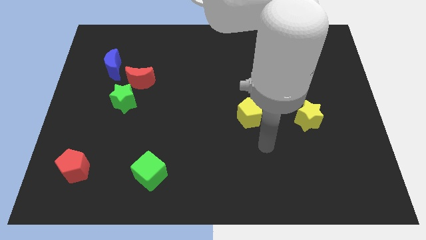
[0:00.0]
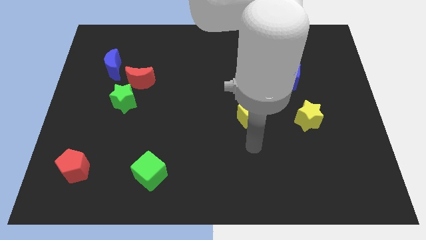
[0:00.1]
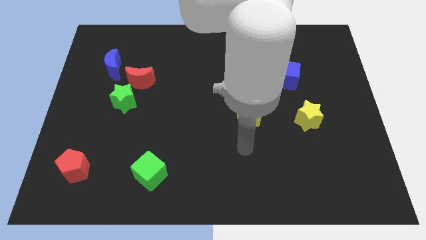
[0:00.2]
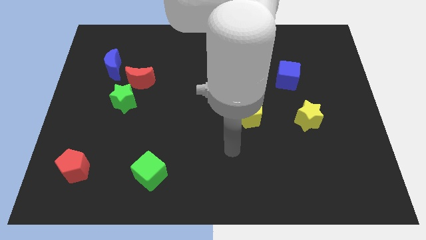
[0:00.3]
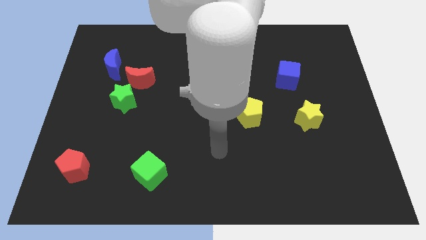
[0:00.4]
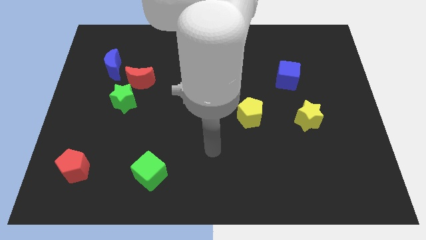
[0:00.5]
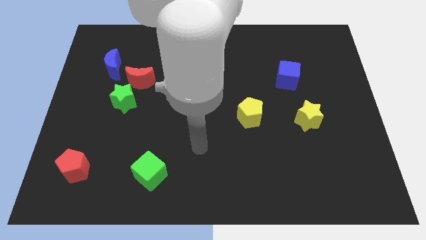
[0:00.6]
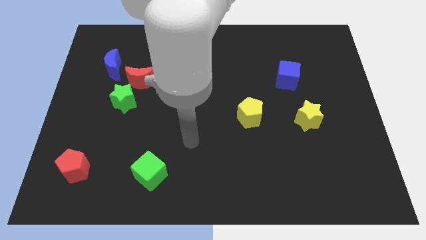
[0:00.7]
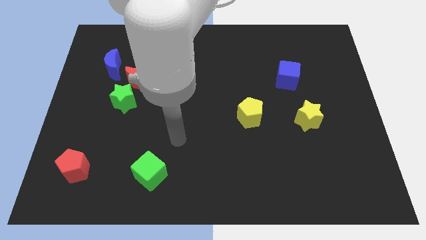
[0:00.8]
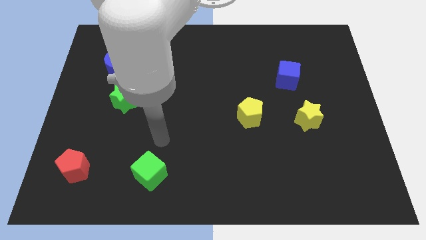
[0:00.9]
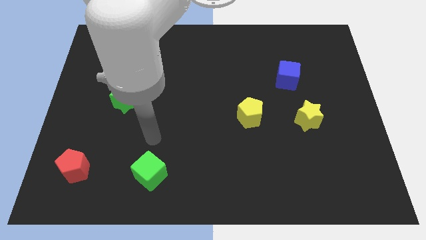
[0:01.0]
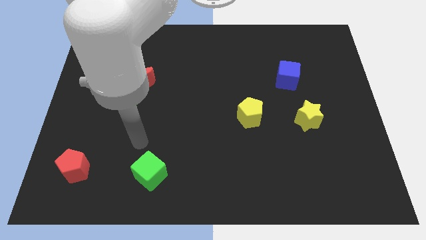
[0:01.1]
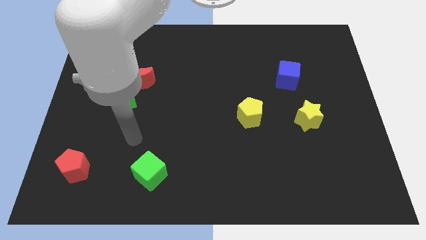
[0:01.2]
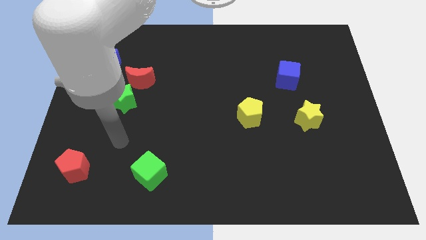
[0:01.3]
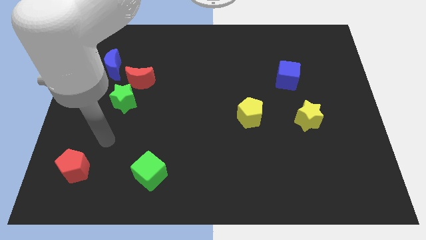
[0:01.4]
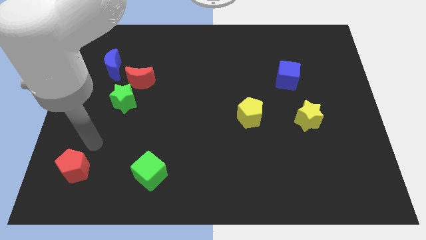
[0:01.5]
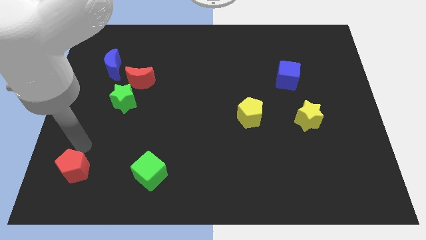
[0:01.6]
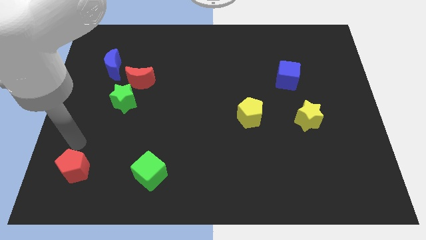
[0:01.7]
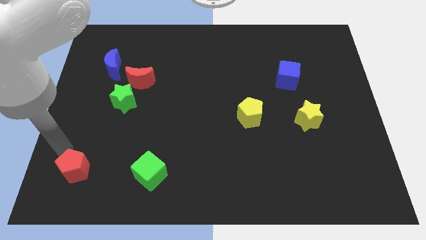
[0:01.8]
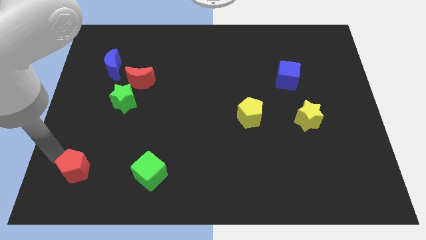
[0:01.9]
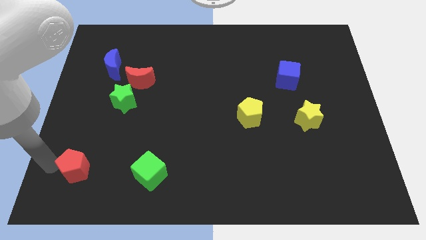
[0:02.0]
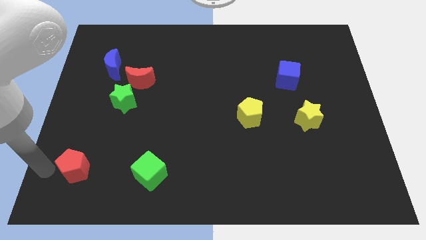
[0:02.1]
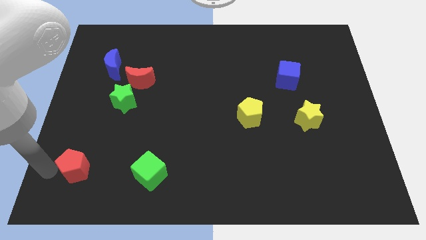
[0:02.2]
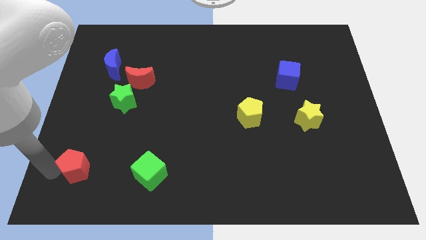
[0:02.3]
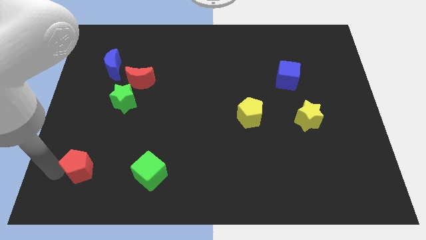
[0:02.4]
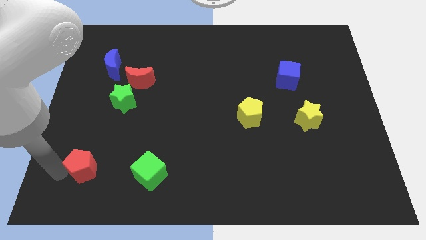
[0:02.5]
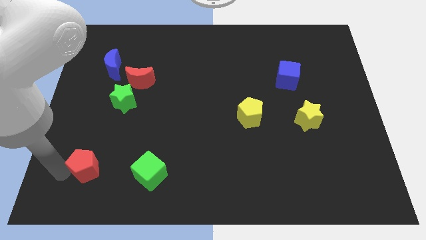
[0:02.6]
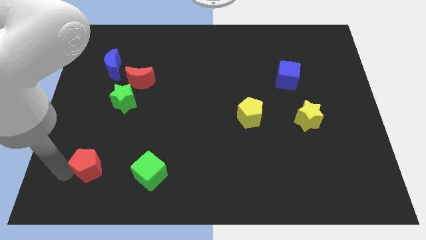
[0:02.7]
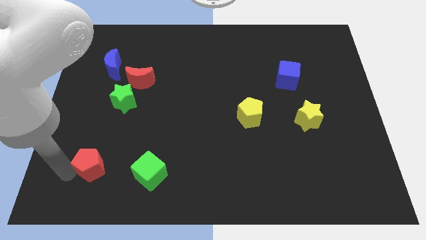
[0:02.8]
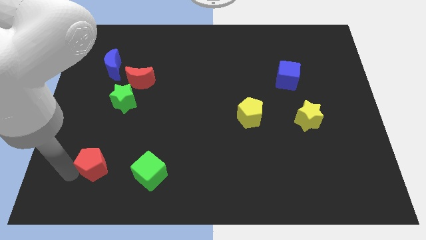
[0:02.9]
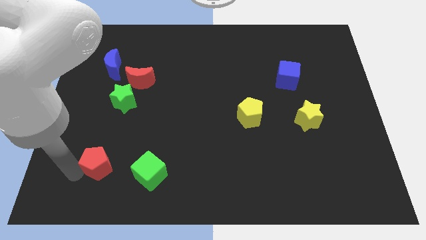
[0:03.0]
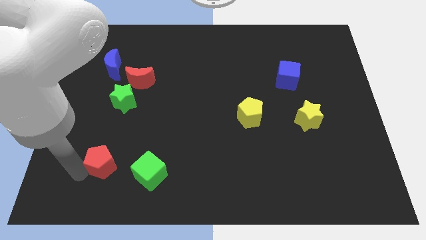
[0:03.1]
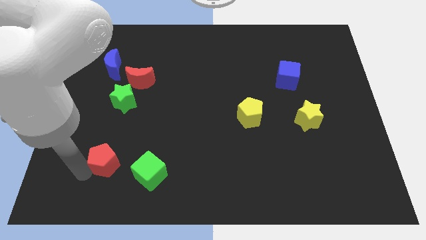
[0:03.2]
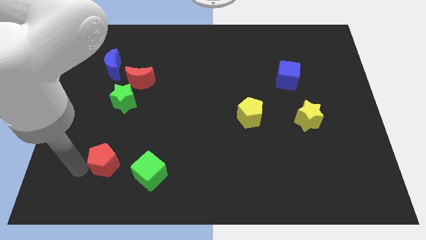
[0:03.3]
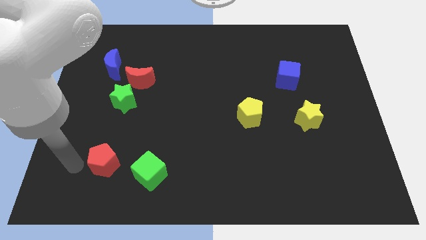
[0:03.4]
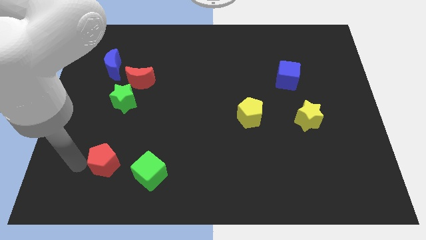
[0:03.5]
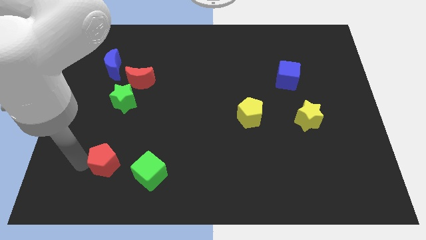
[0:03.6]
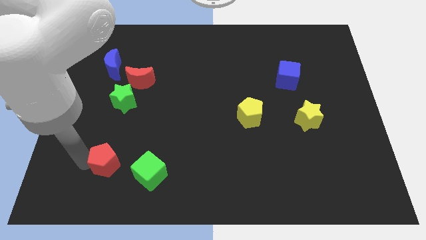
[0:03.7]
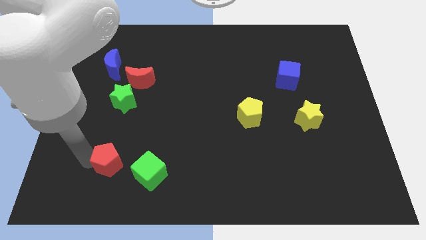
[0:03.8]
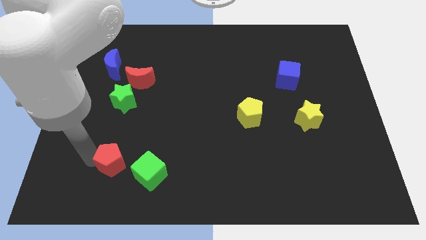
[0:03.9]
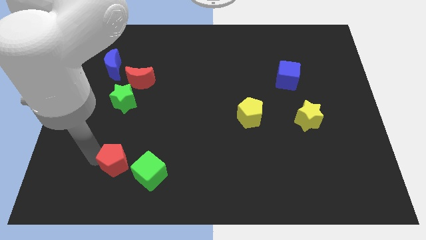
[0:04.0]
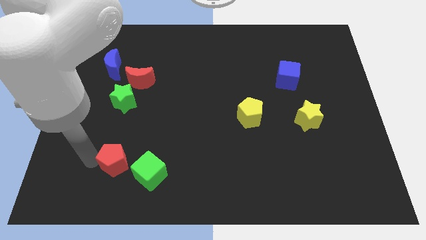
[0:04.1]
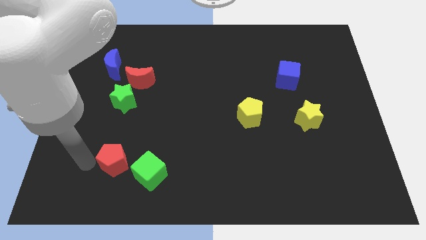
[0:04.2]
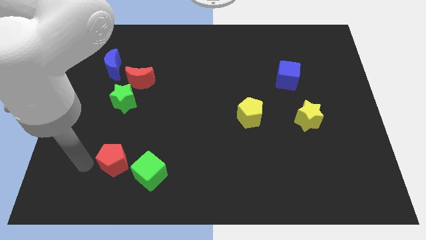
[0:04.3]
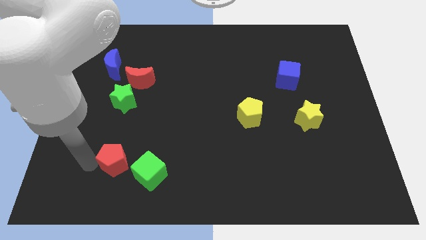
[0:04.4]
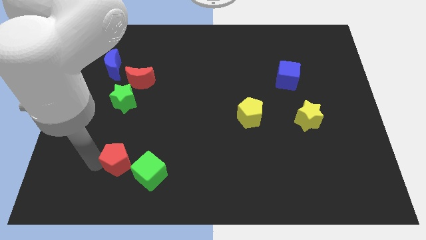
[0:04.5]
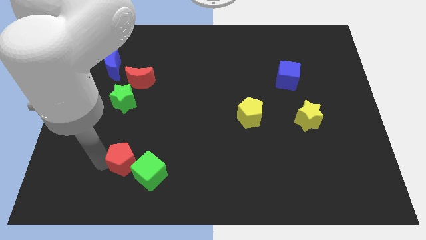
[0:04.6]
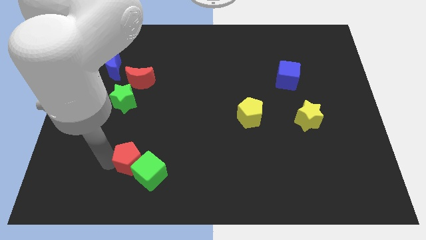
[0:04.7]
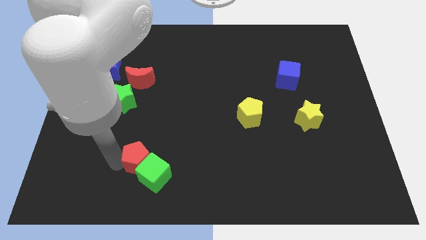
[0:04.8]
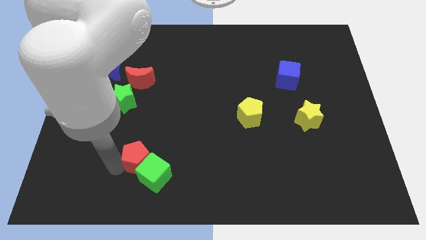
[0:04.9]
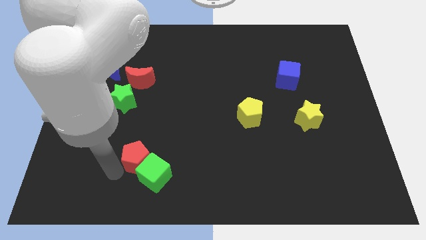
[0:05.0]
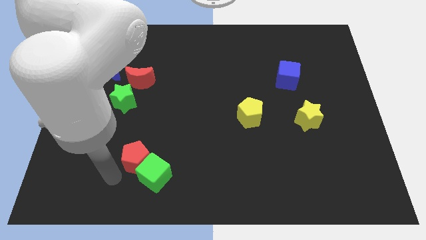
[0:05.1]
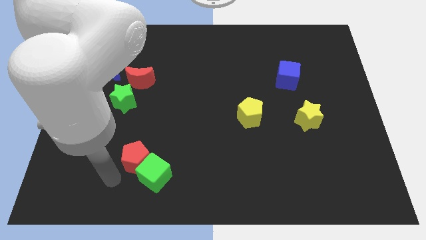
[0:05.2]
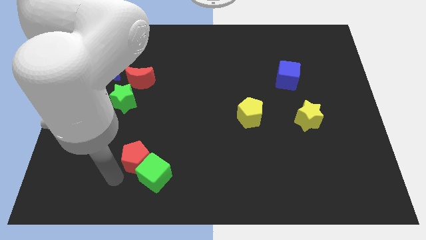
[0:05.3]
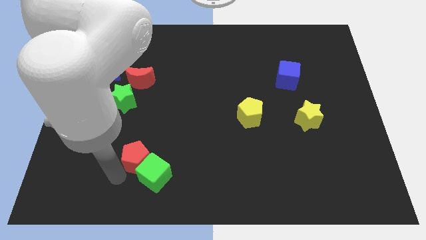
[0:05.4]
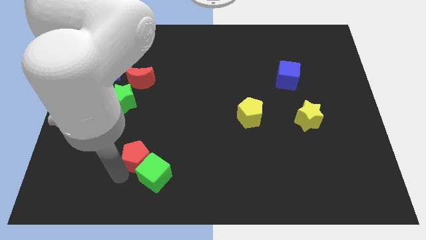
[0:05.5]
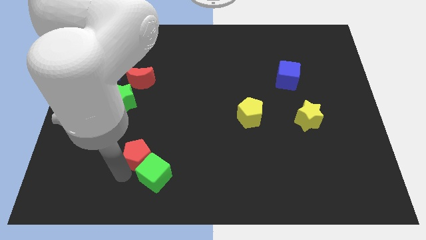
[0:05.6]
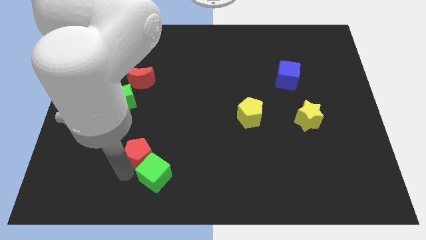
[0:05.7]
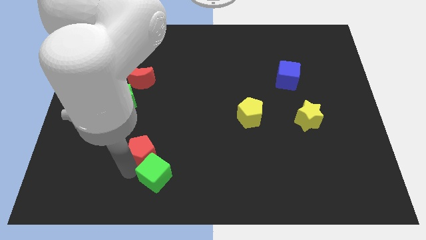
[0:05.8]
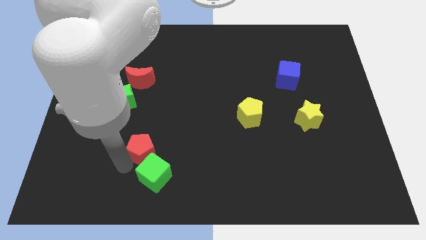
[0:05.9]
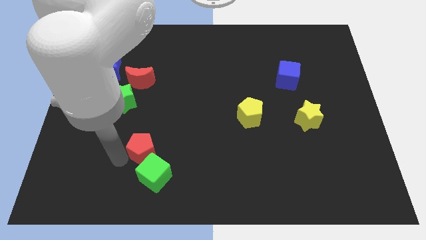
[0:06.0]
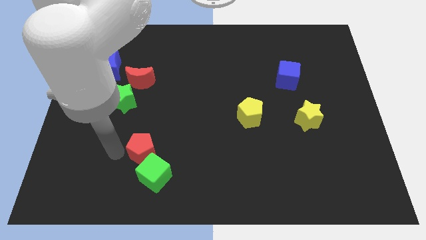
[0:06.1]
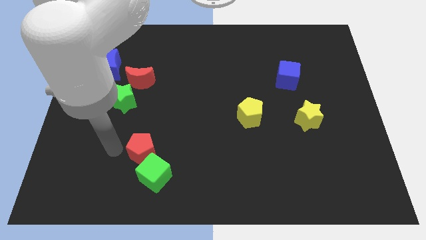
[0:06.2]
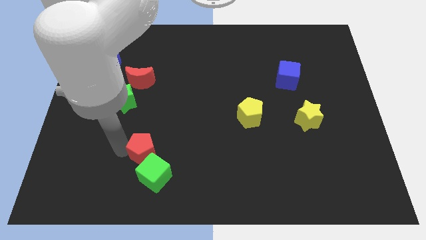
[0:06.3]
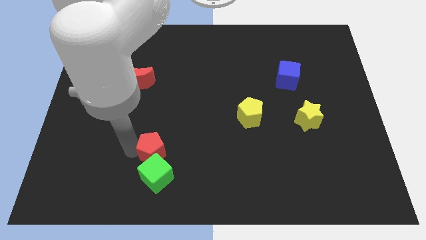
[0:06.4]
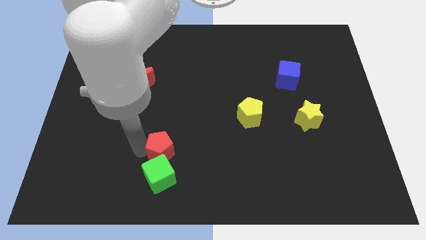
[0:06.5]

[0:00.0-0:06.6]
slide the red pentagon to the top right side of the green cube
